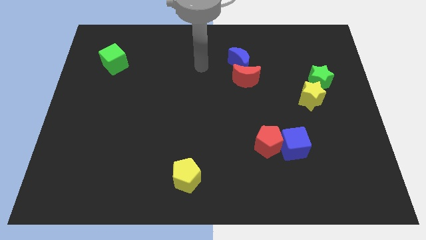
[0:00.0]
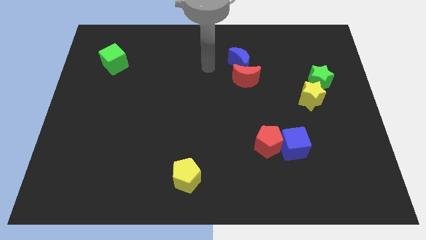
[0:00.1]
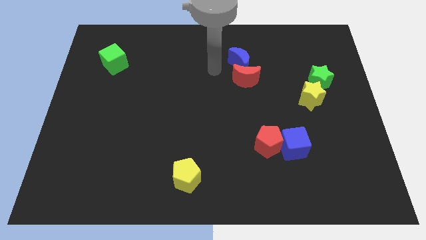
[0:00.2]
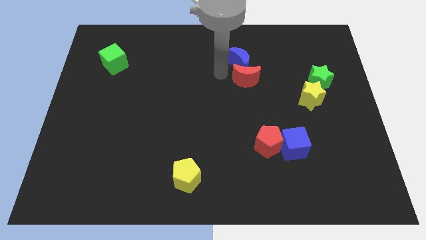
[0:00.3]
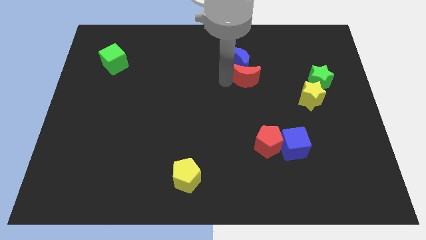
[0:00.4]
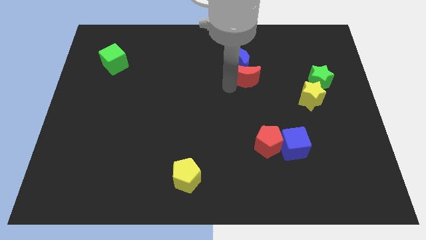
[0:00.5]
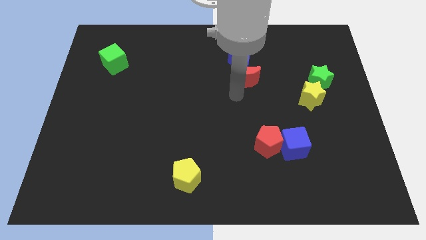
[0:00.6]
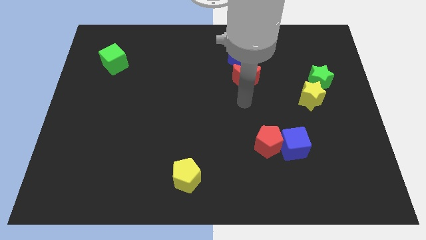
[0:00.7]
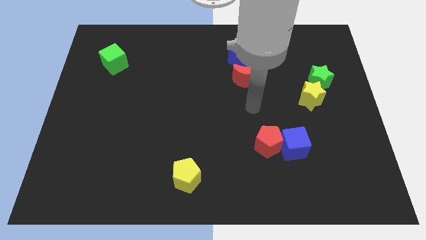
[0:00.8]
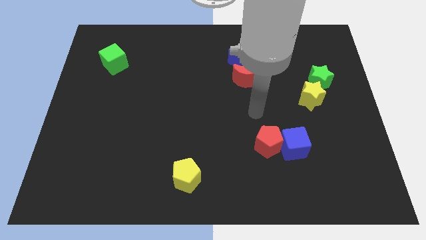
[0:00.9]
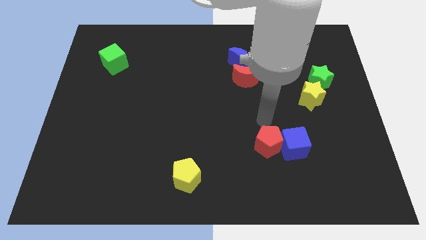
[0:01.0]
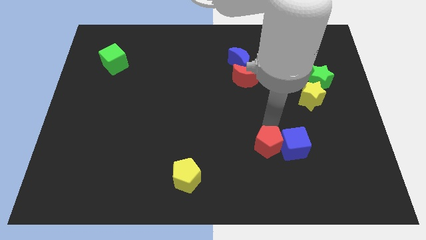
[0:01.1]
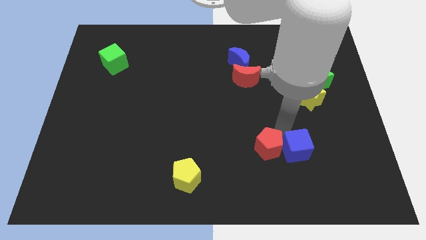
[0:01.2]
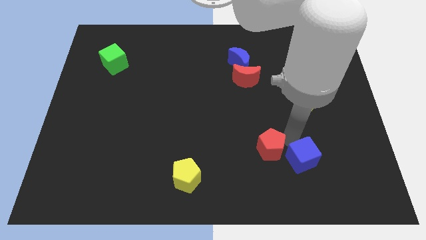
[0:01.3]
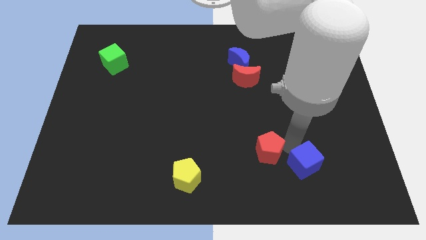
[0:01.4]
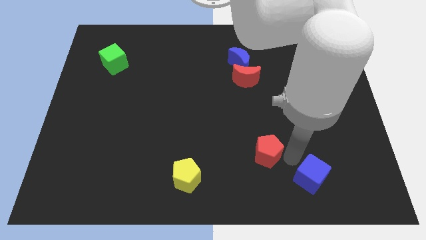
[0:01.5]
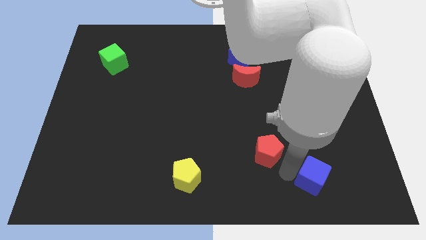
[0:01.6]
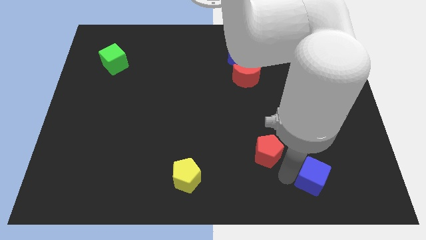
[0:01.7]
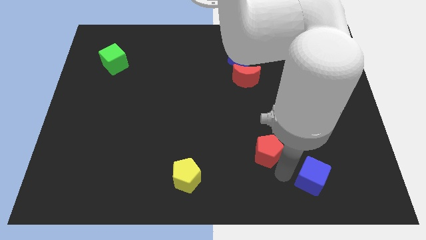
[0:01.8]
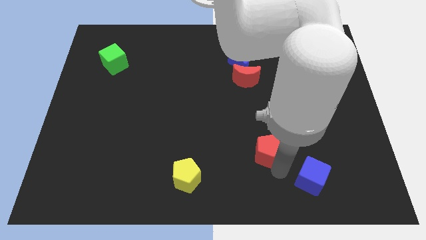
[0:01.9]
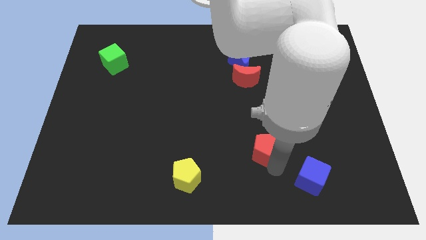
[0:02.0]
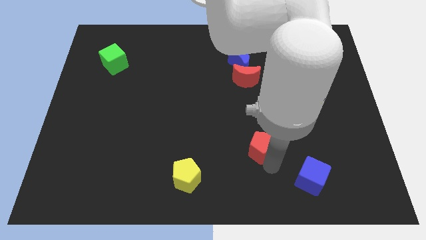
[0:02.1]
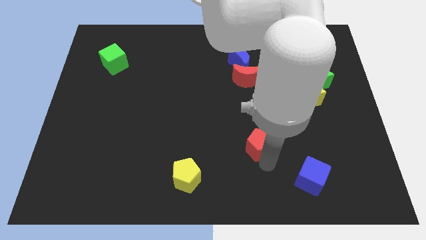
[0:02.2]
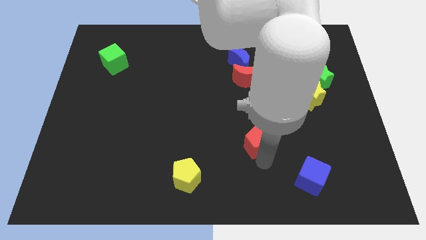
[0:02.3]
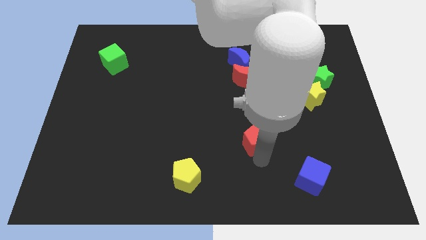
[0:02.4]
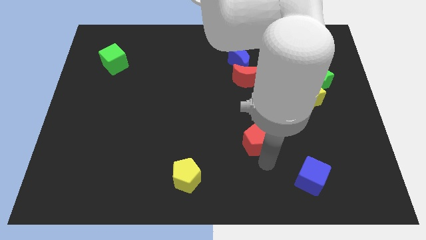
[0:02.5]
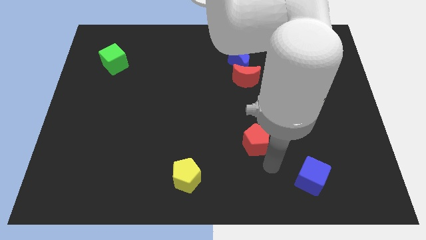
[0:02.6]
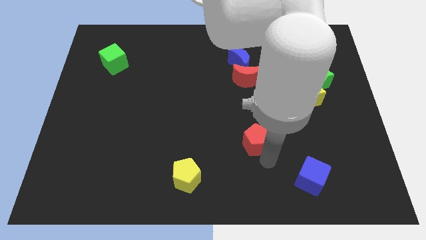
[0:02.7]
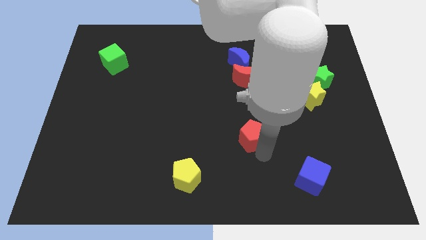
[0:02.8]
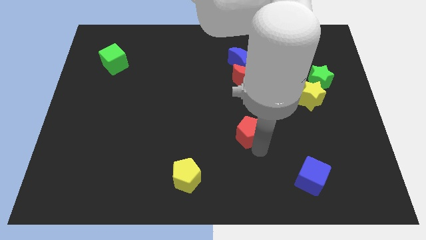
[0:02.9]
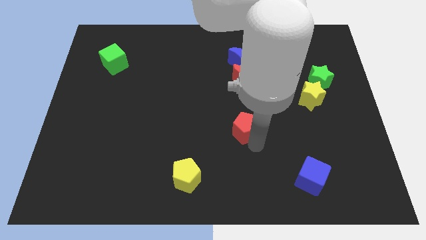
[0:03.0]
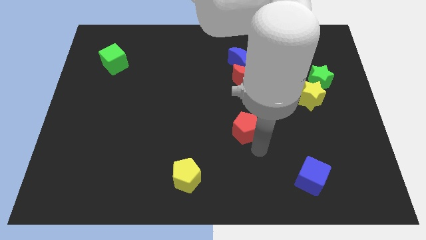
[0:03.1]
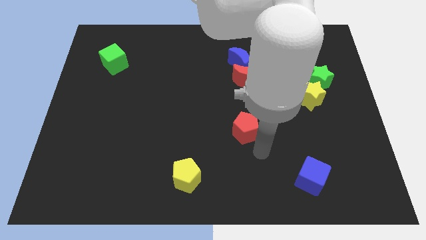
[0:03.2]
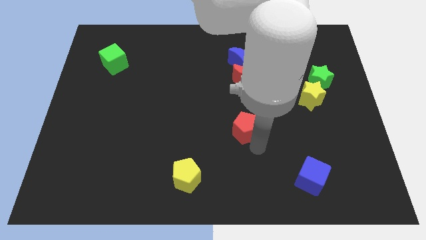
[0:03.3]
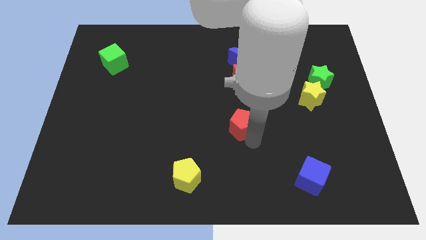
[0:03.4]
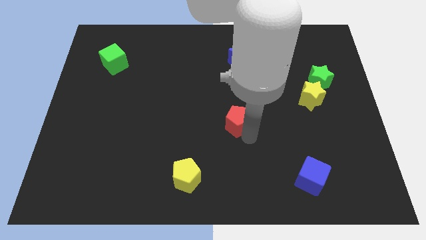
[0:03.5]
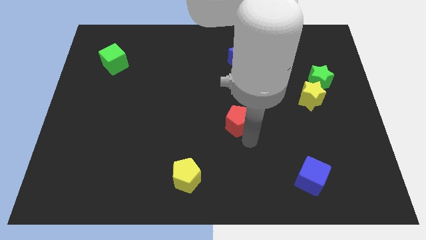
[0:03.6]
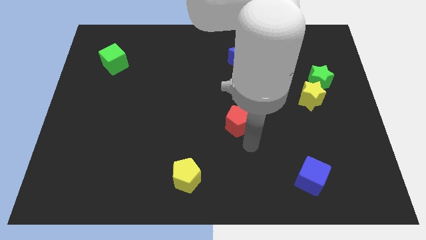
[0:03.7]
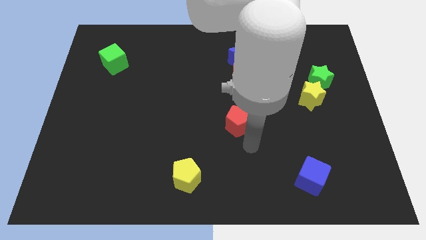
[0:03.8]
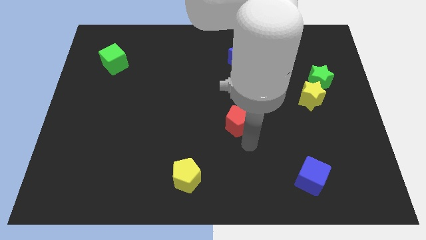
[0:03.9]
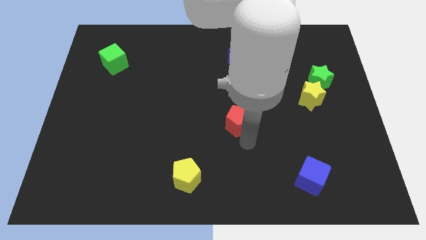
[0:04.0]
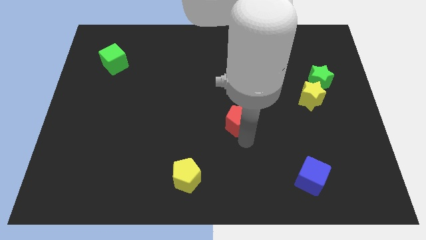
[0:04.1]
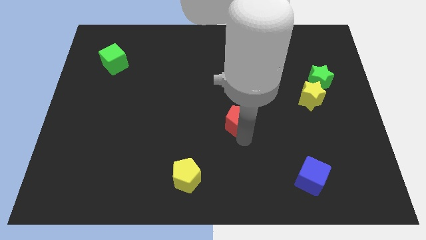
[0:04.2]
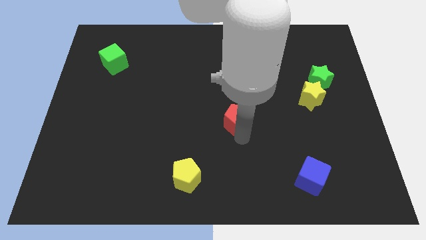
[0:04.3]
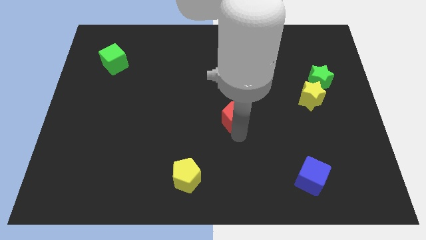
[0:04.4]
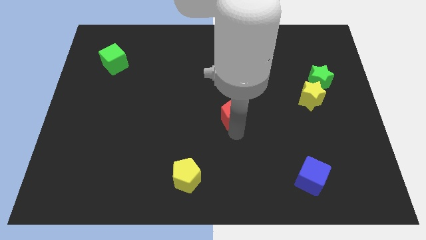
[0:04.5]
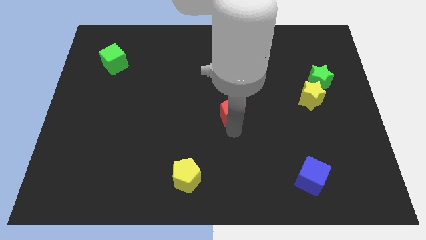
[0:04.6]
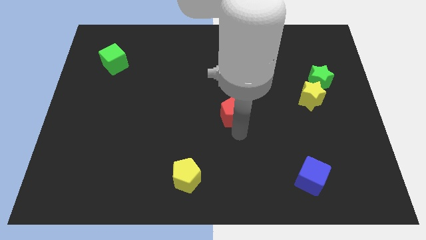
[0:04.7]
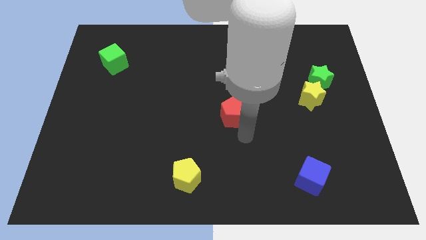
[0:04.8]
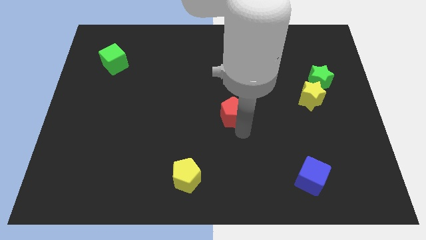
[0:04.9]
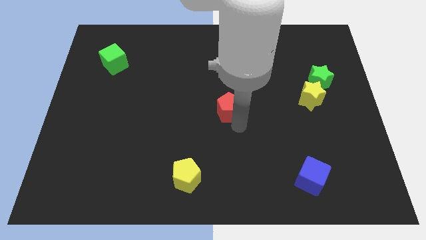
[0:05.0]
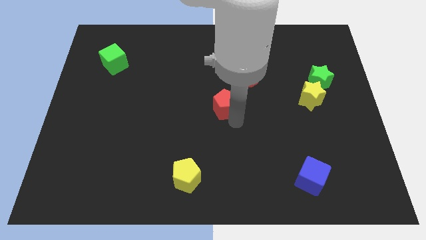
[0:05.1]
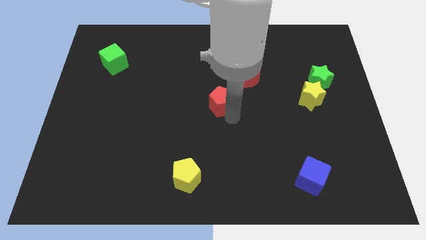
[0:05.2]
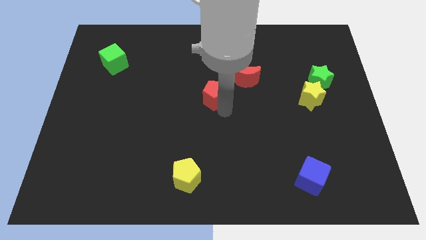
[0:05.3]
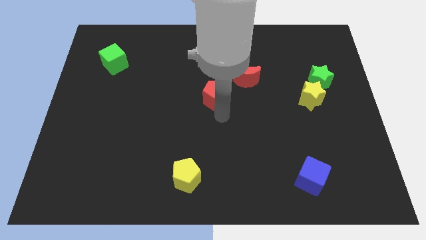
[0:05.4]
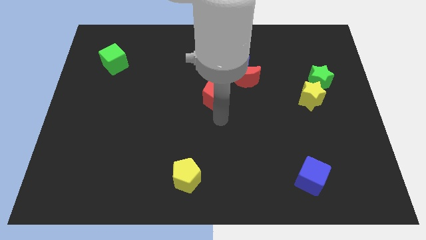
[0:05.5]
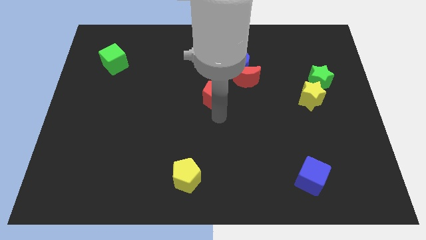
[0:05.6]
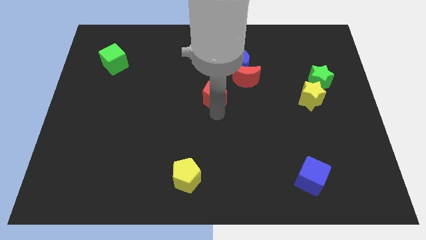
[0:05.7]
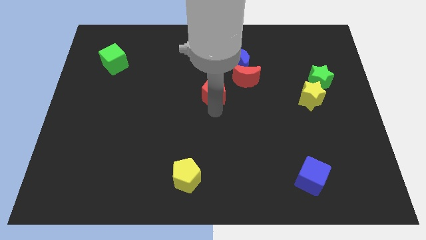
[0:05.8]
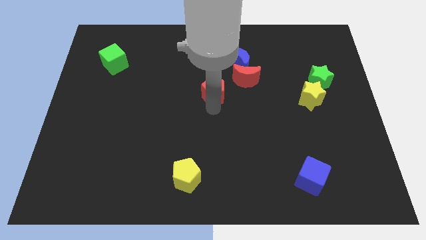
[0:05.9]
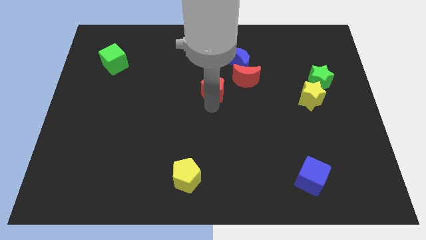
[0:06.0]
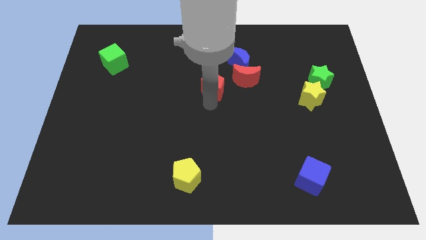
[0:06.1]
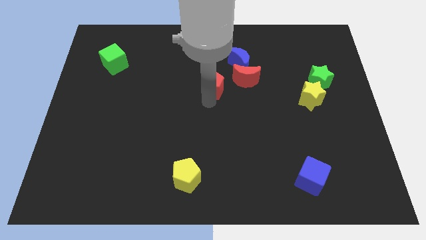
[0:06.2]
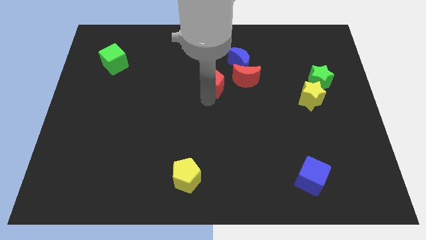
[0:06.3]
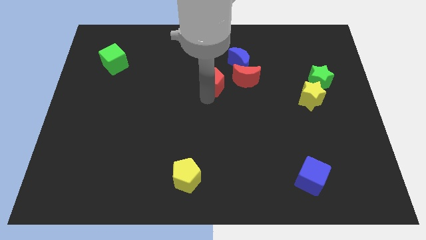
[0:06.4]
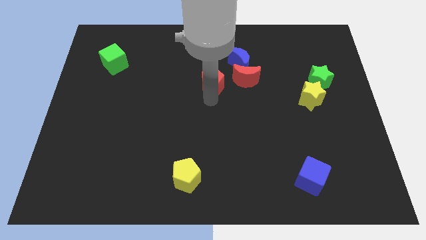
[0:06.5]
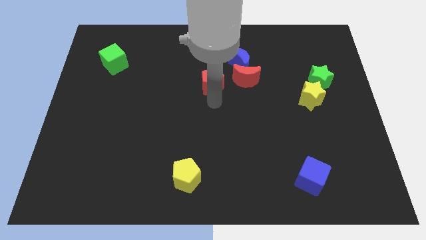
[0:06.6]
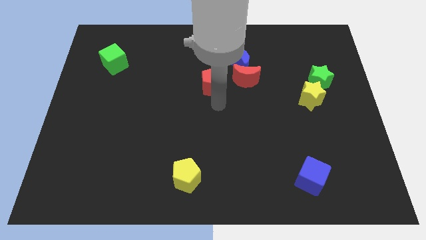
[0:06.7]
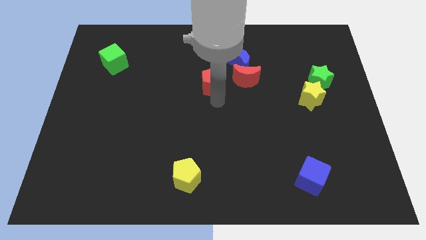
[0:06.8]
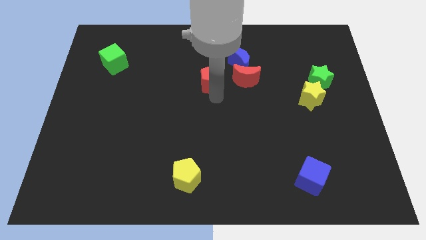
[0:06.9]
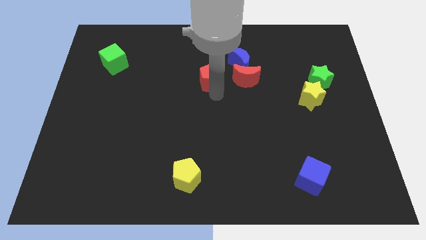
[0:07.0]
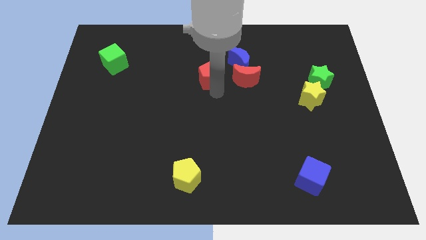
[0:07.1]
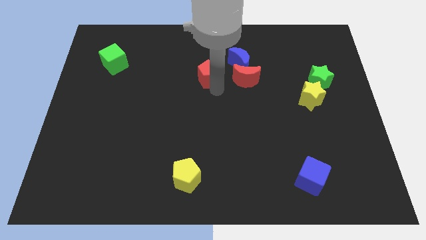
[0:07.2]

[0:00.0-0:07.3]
push the red pentagon to the left side of the blue moon
